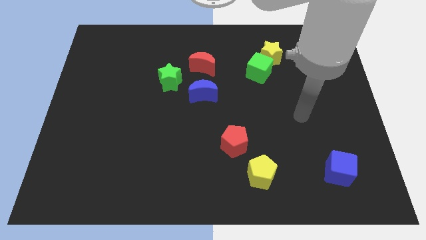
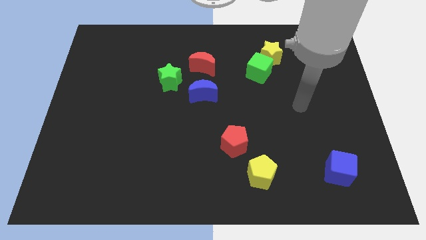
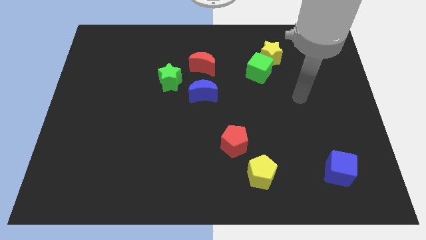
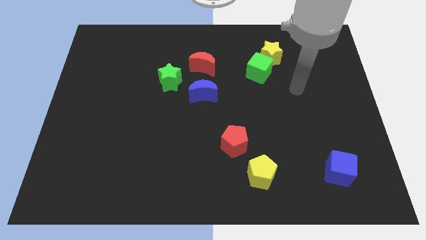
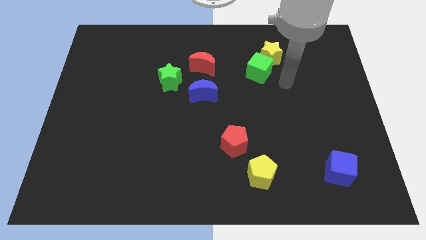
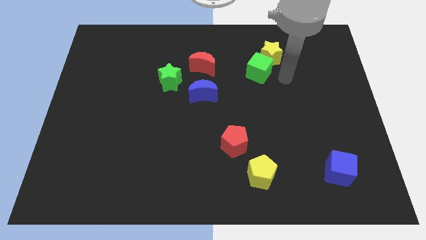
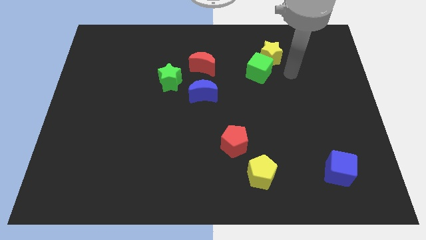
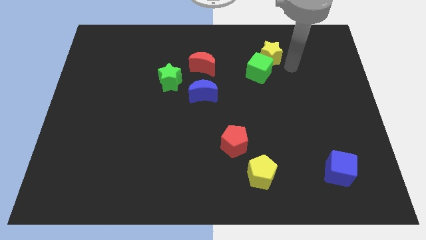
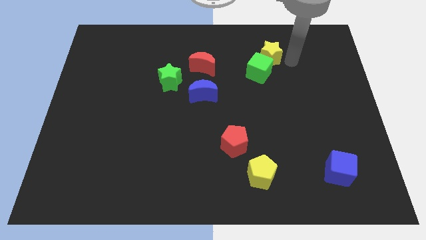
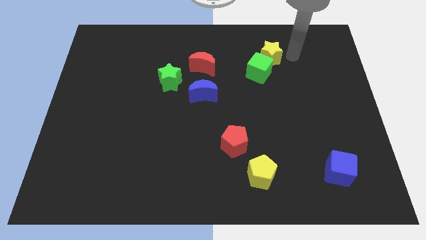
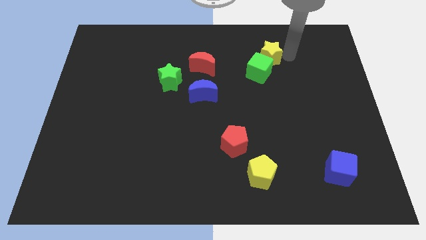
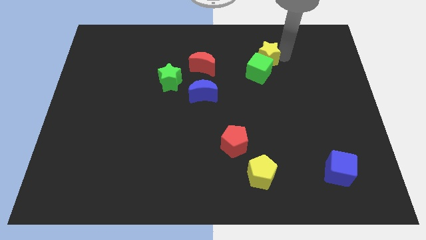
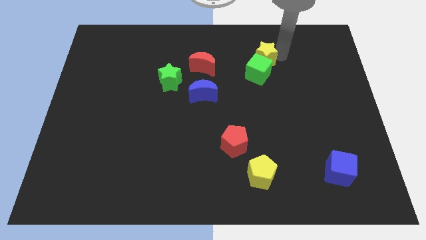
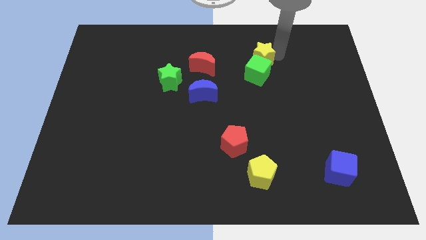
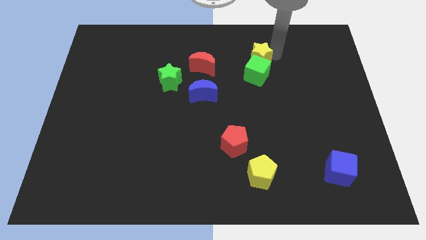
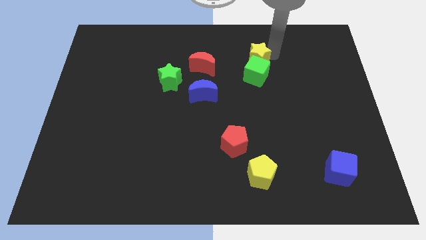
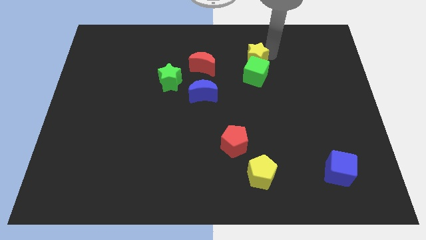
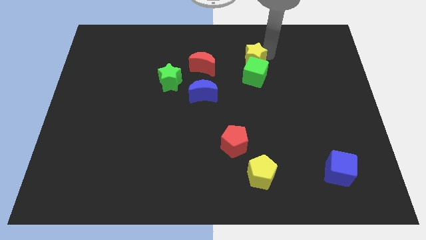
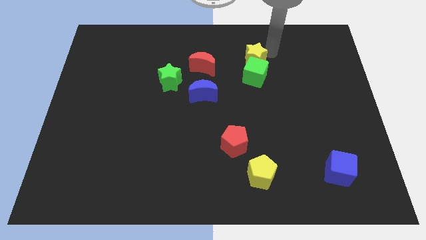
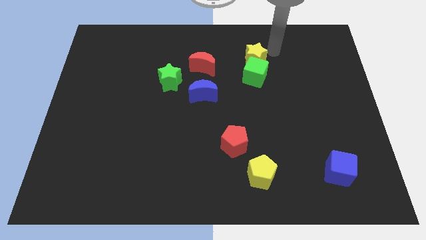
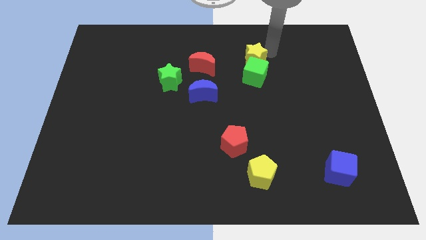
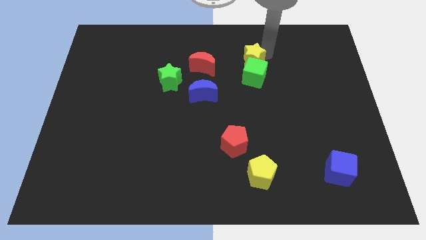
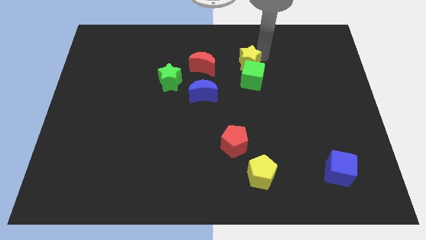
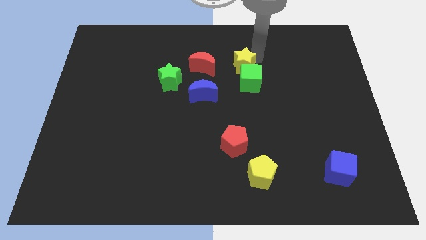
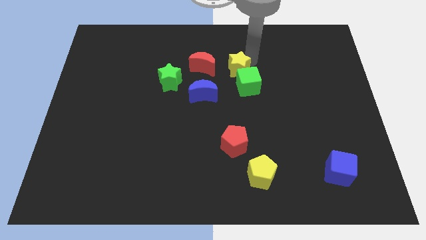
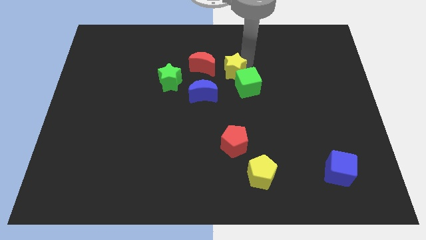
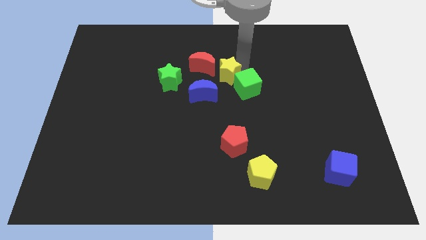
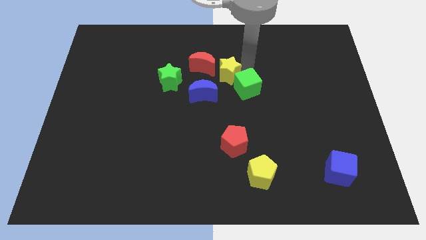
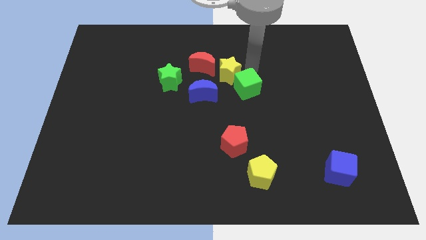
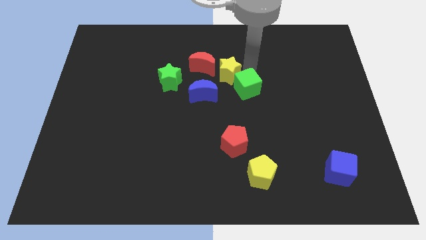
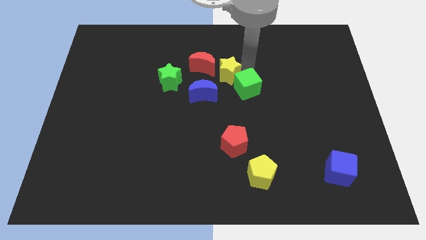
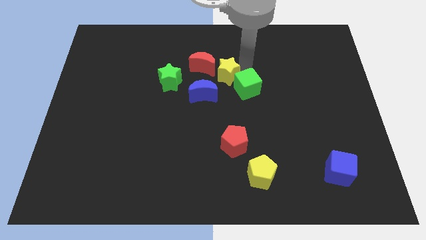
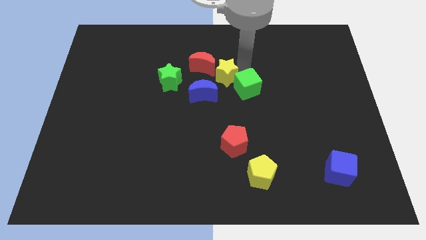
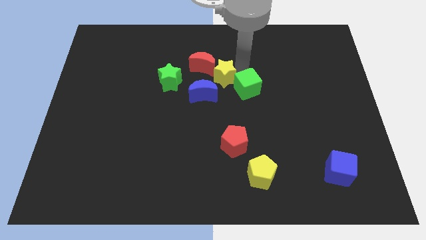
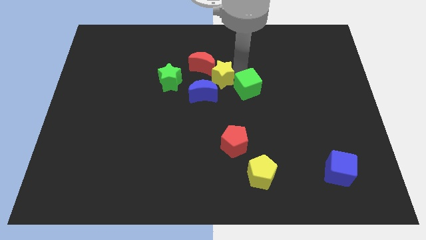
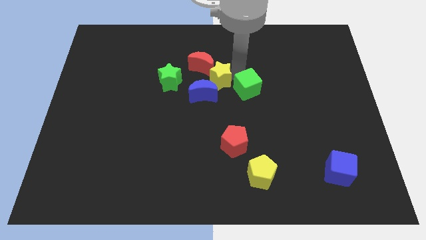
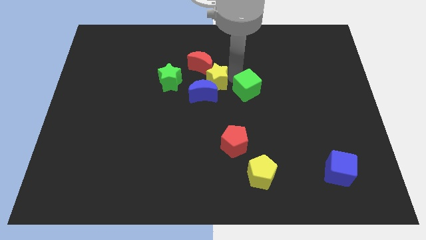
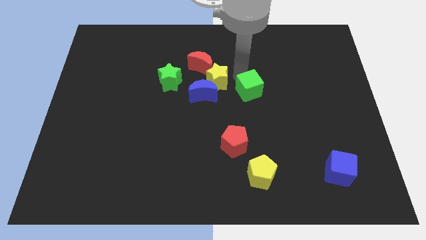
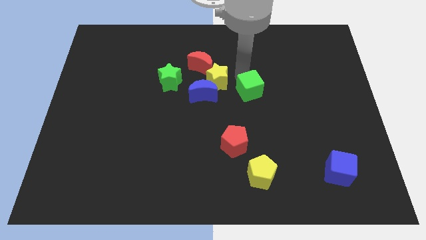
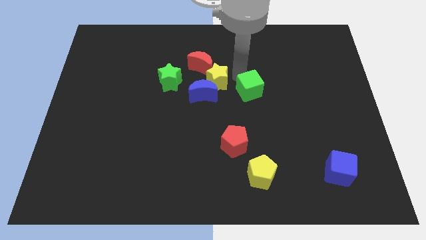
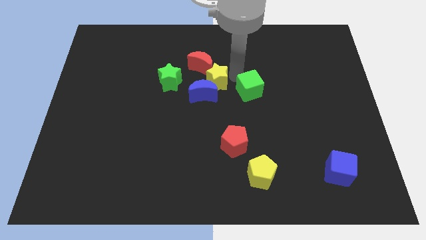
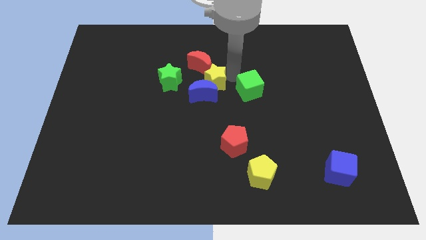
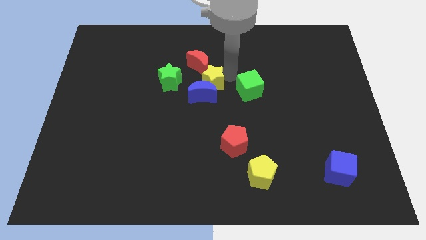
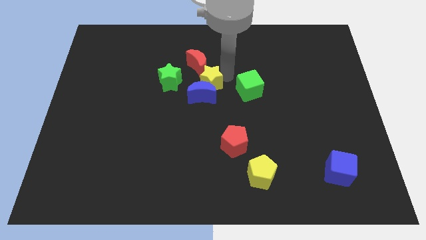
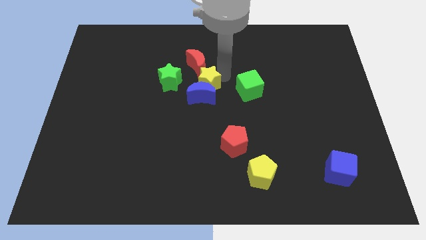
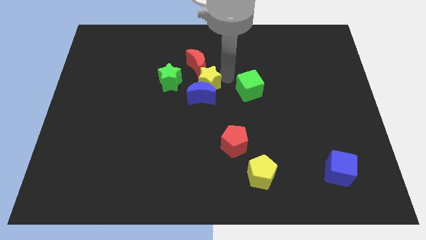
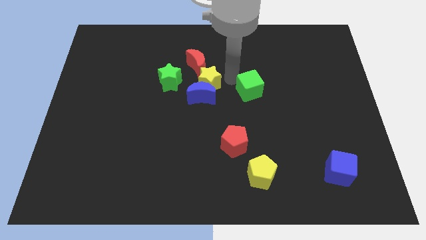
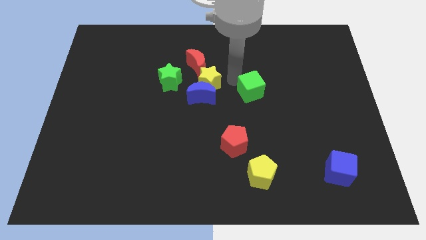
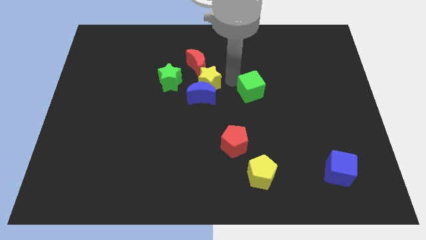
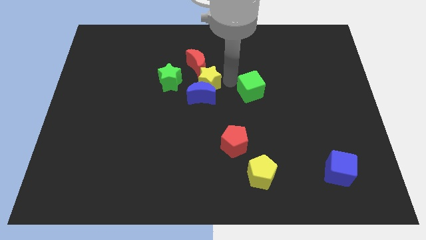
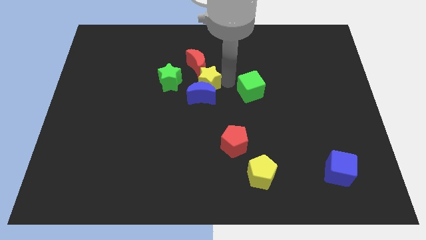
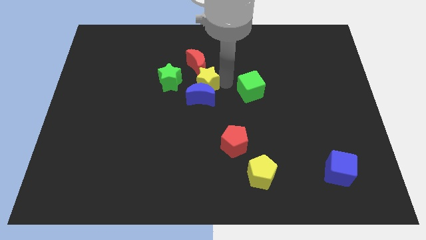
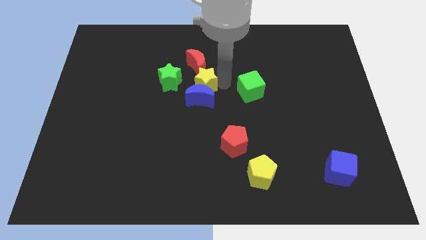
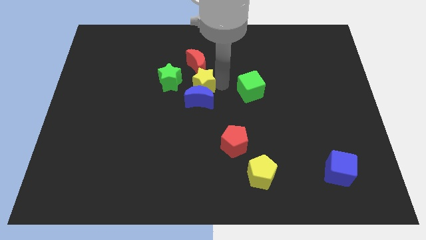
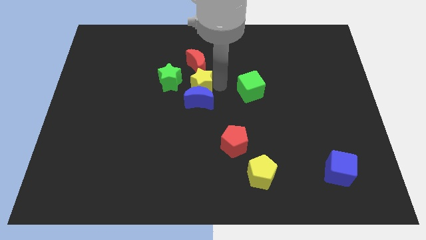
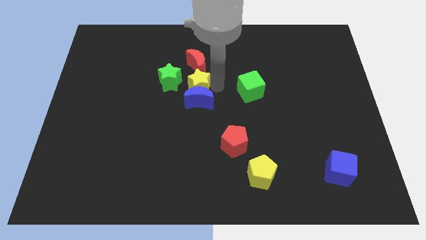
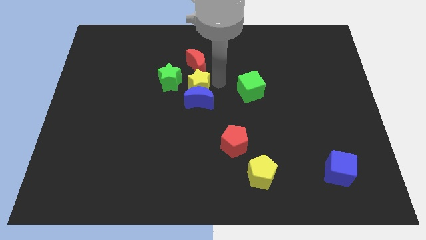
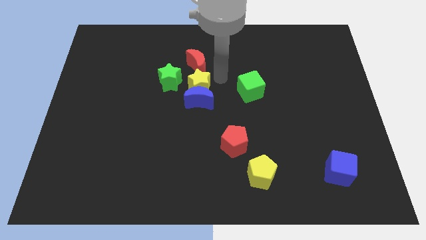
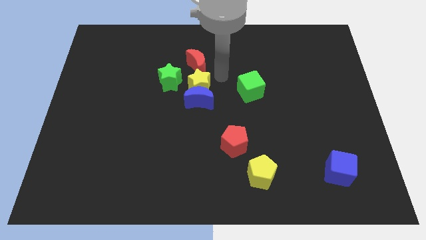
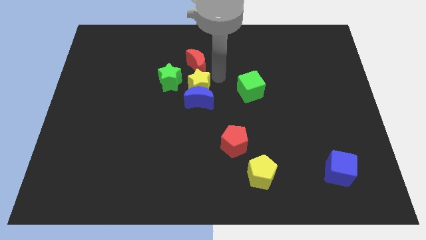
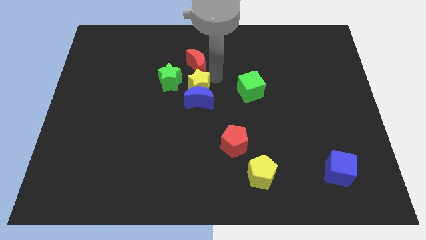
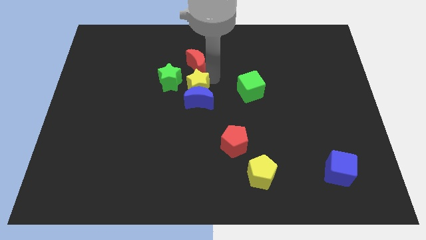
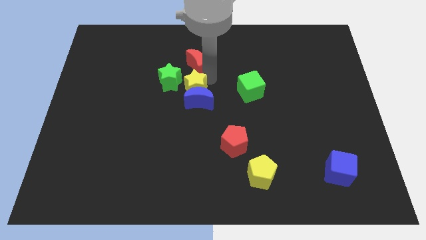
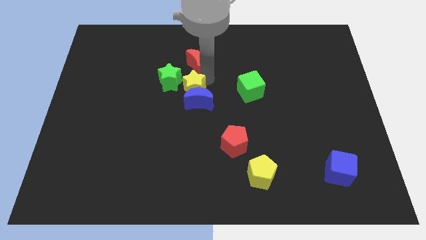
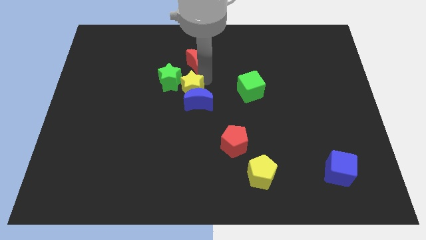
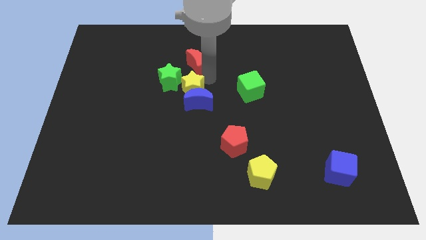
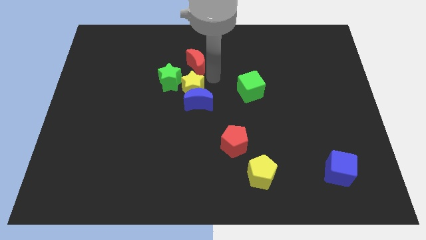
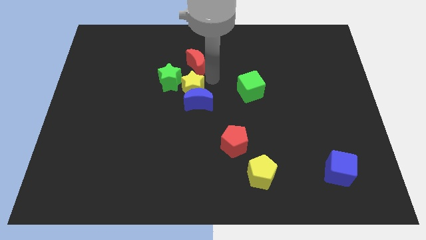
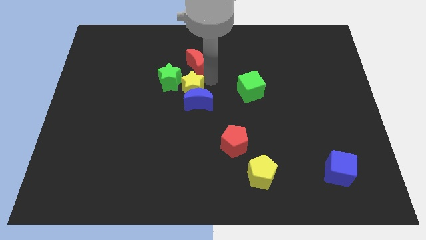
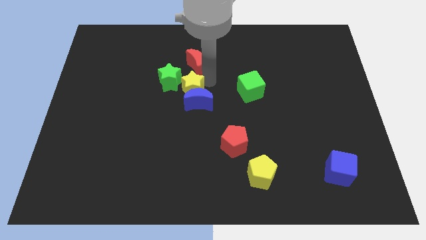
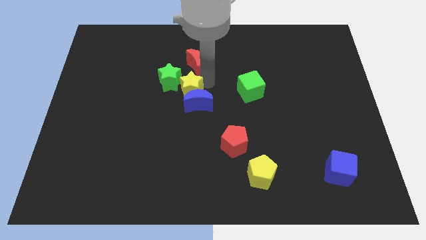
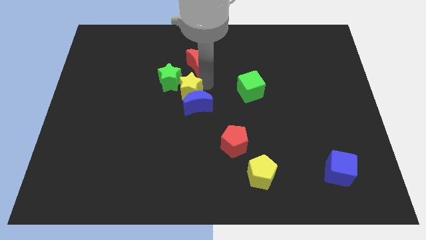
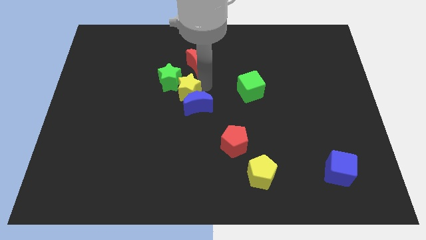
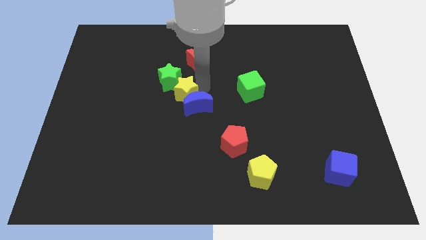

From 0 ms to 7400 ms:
slide the yellow star left of the blue moon

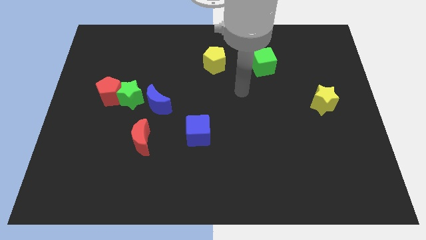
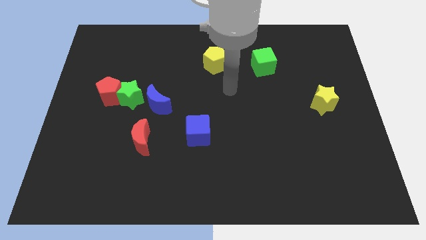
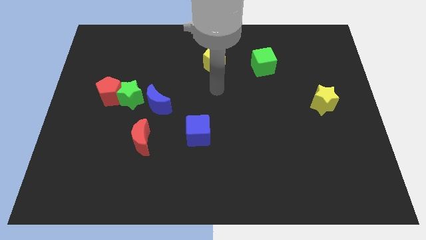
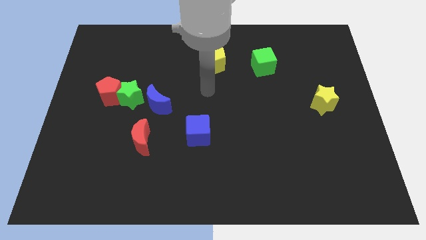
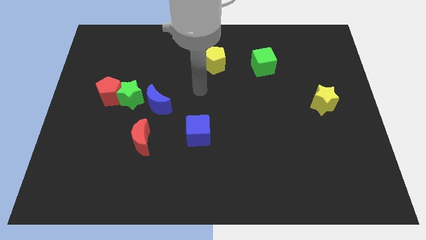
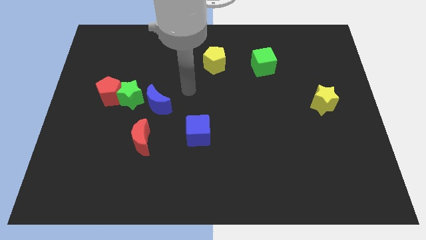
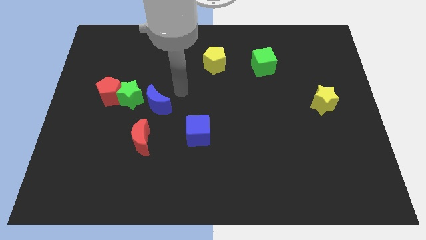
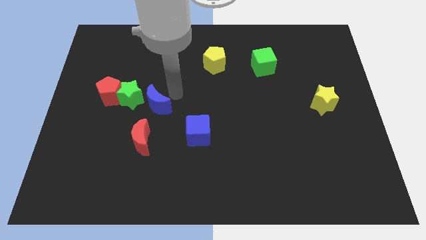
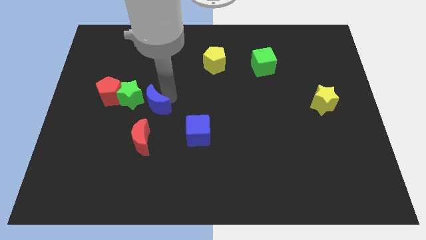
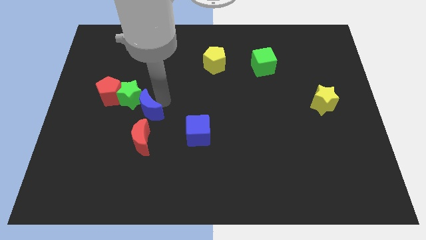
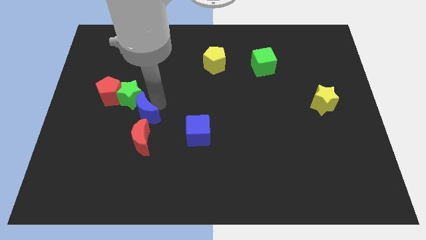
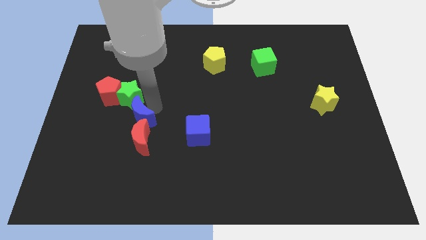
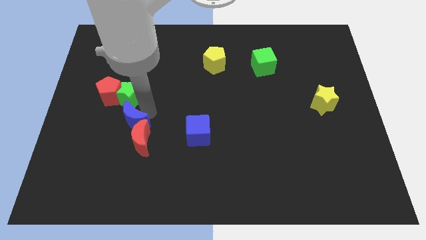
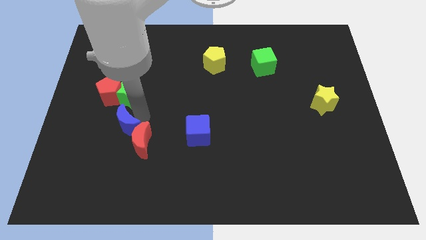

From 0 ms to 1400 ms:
move the blue moon to the left of the red moon
